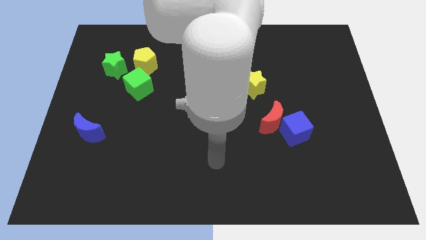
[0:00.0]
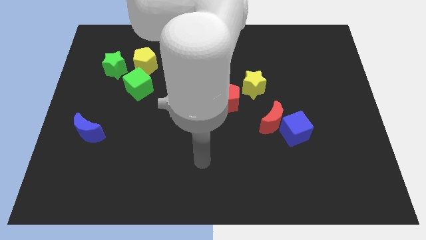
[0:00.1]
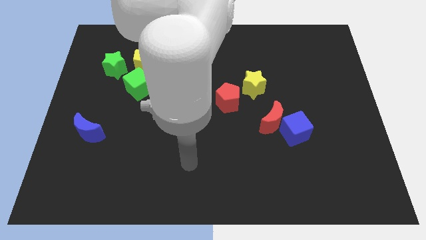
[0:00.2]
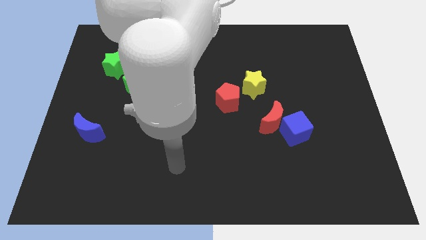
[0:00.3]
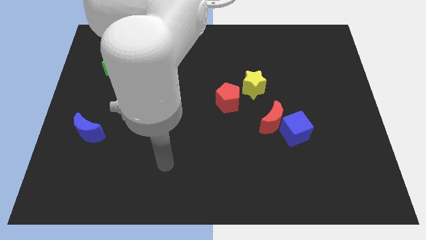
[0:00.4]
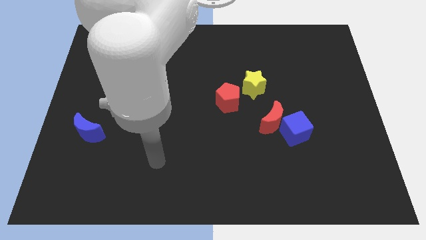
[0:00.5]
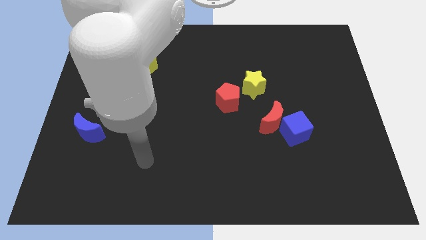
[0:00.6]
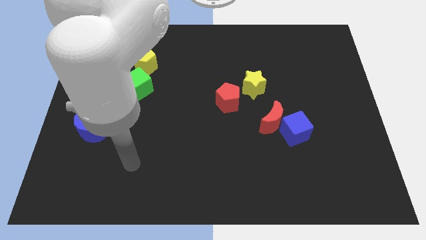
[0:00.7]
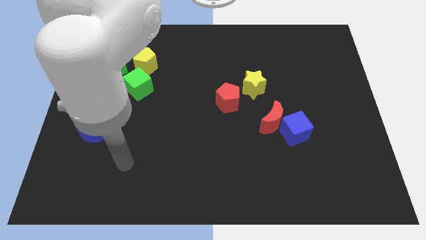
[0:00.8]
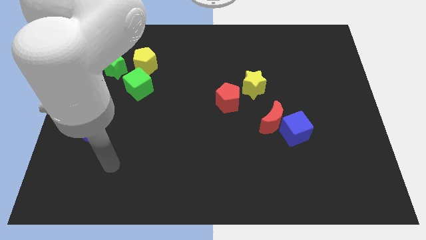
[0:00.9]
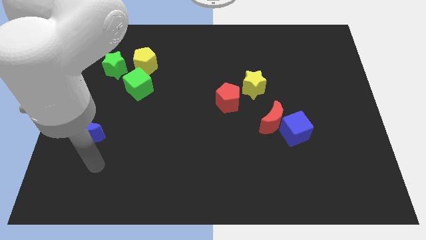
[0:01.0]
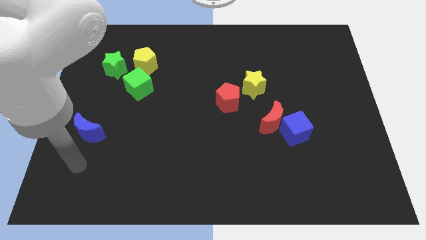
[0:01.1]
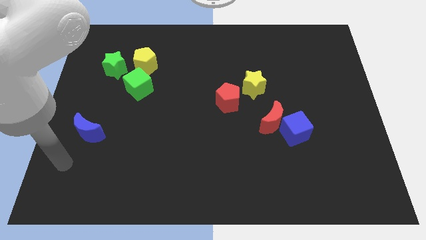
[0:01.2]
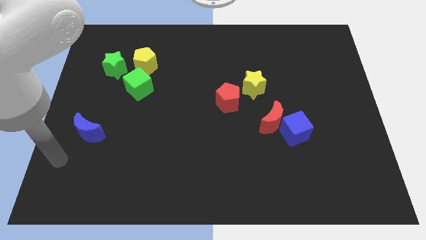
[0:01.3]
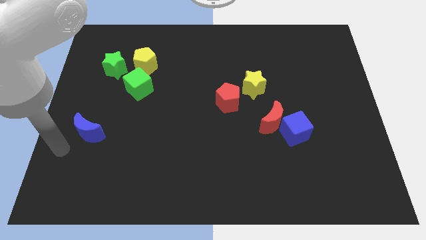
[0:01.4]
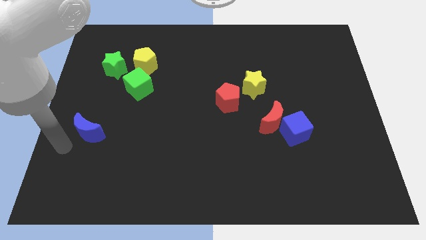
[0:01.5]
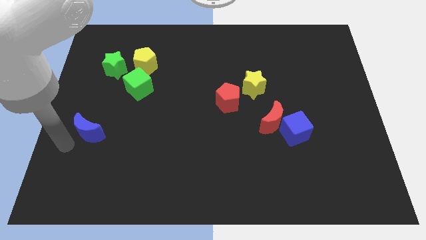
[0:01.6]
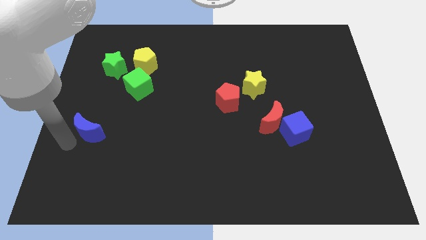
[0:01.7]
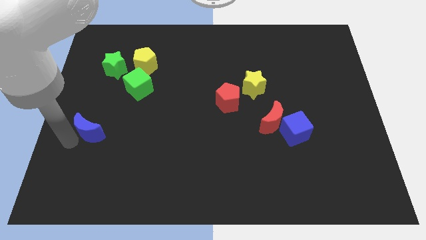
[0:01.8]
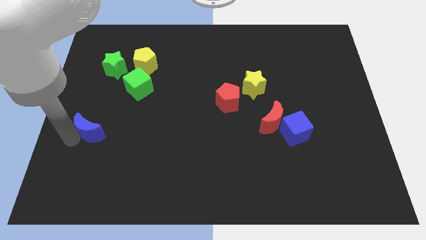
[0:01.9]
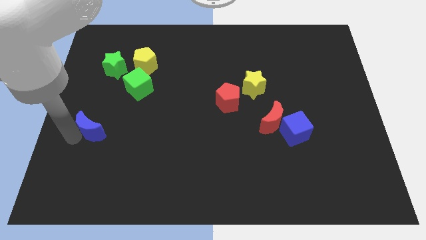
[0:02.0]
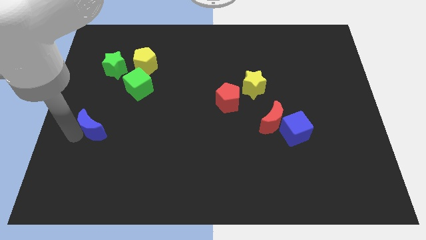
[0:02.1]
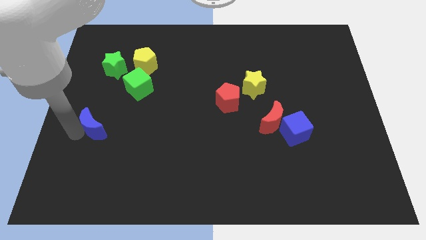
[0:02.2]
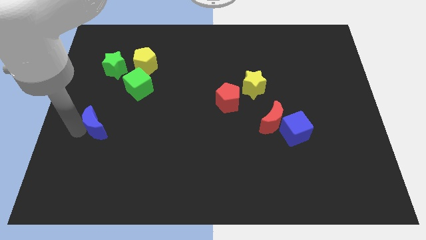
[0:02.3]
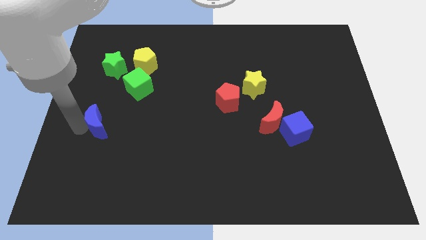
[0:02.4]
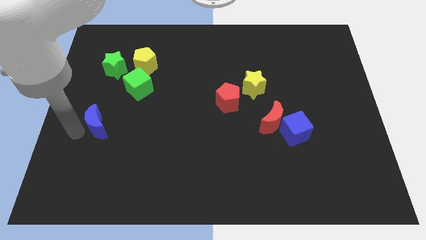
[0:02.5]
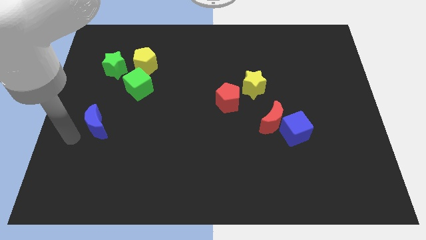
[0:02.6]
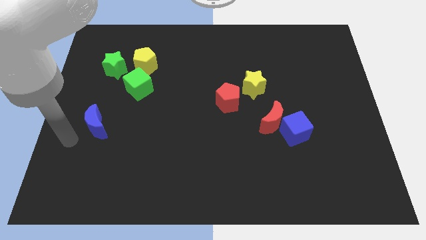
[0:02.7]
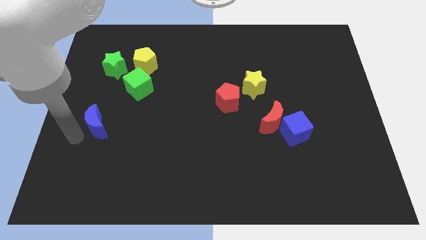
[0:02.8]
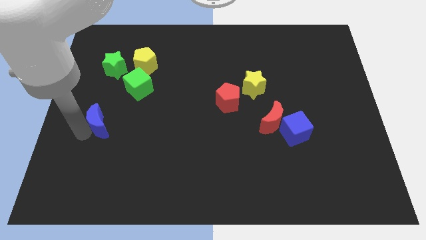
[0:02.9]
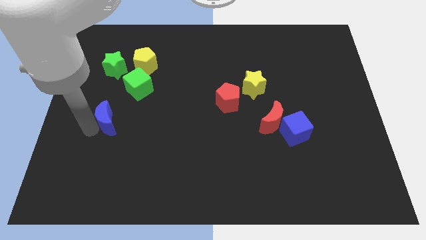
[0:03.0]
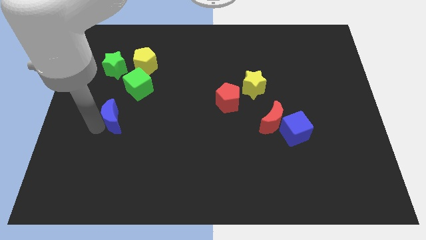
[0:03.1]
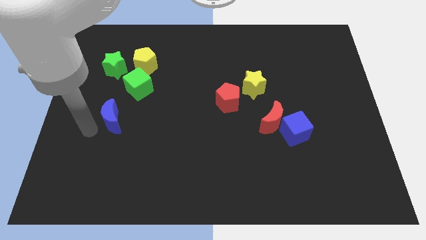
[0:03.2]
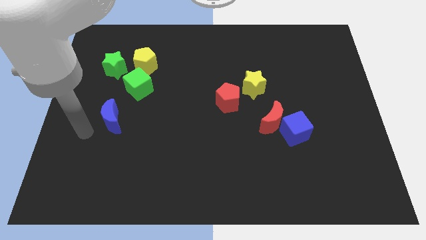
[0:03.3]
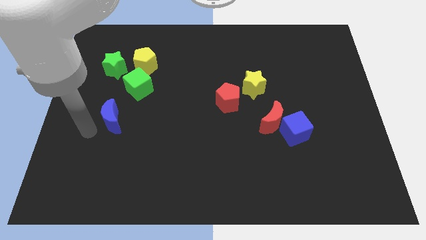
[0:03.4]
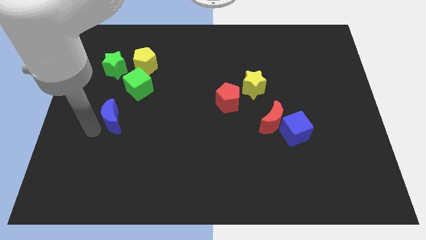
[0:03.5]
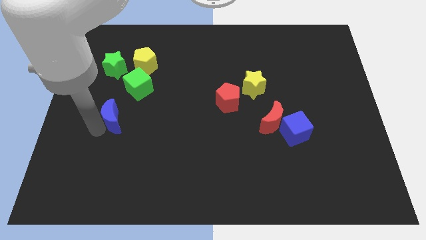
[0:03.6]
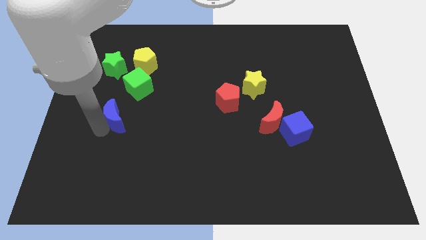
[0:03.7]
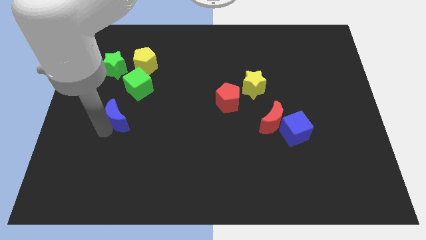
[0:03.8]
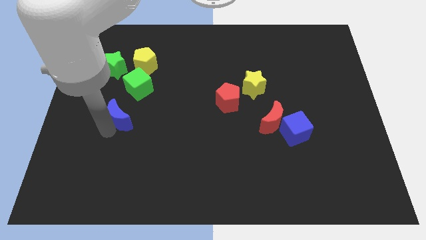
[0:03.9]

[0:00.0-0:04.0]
slightly move the blue moon upwards and then to the right

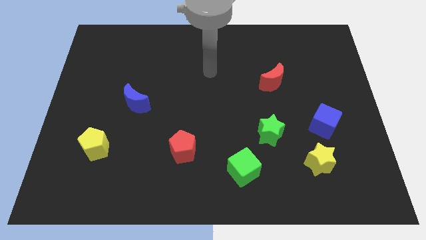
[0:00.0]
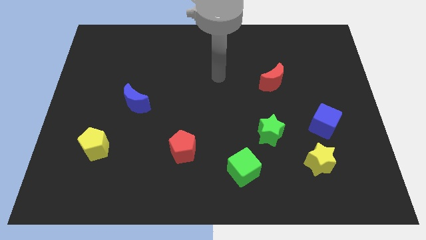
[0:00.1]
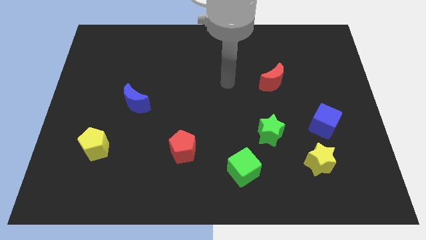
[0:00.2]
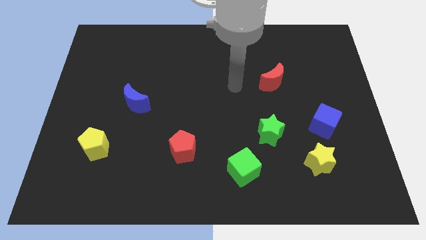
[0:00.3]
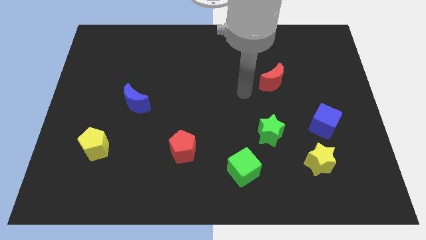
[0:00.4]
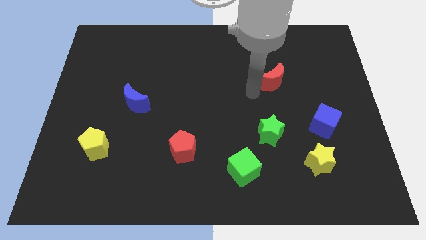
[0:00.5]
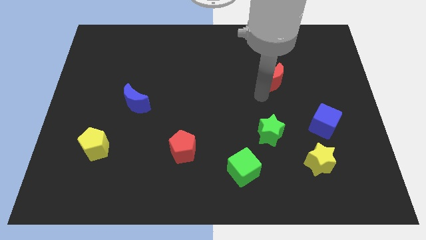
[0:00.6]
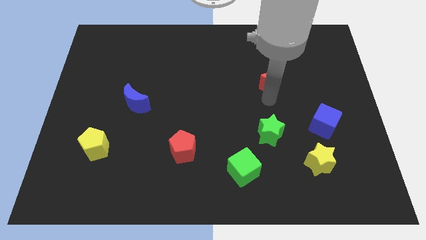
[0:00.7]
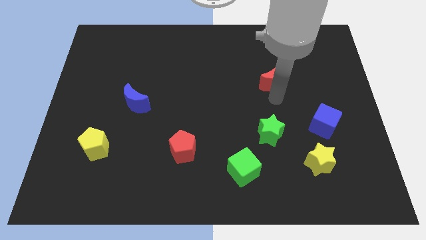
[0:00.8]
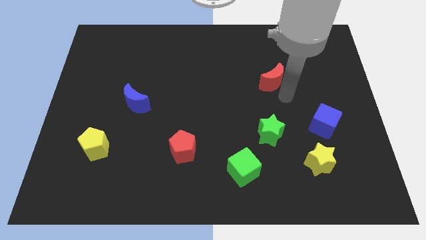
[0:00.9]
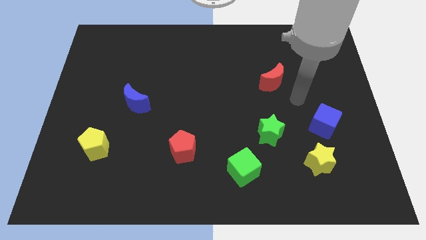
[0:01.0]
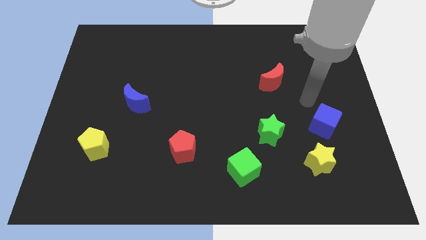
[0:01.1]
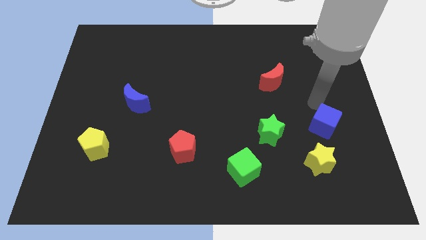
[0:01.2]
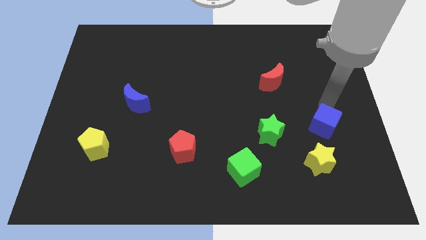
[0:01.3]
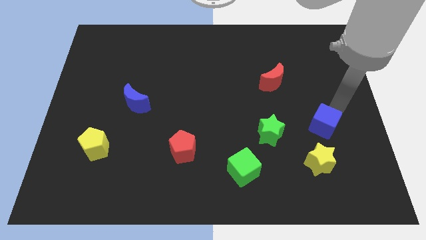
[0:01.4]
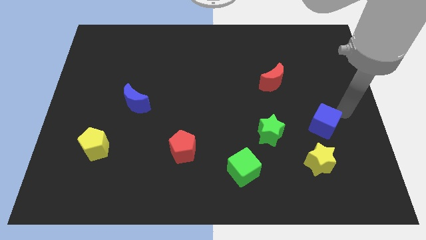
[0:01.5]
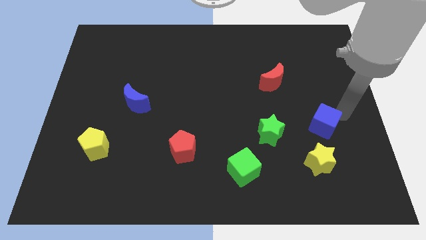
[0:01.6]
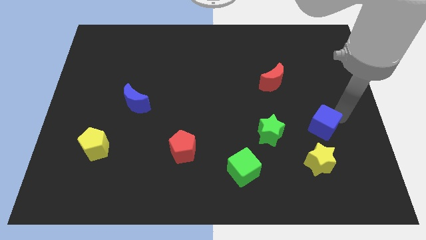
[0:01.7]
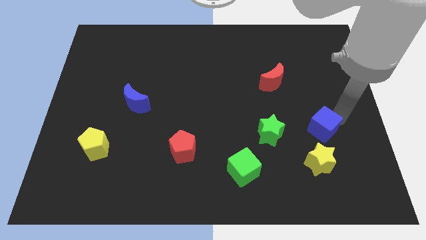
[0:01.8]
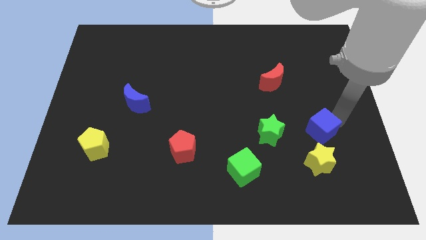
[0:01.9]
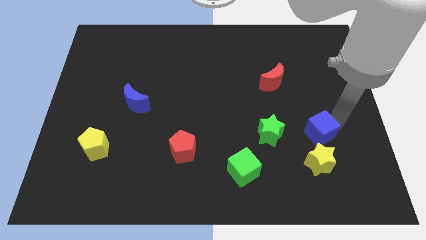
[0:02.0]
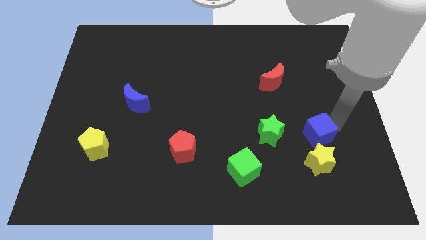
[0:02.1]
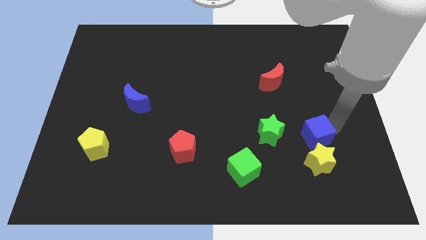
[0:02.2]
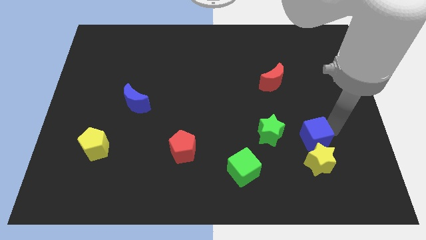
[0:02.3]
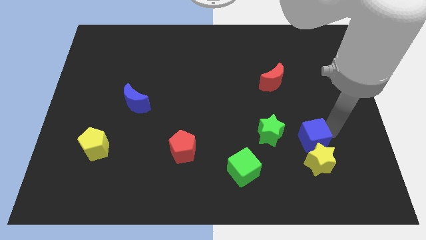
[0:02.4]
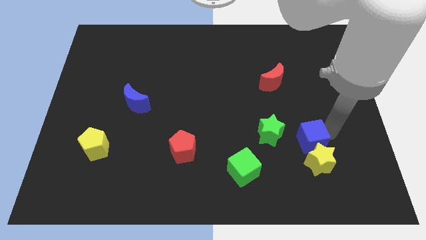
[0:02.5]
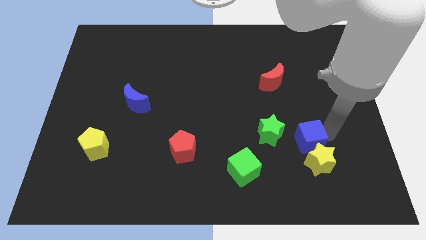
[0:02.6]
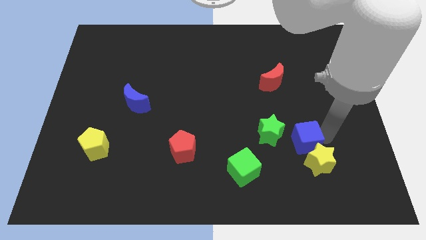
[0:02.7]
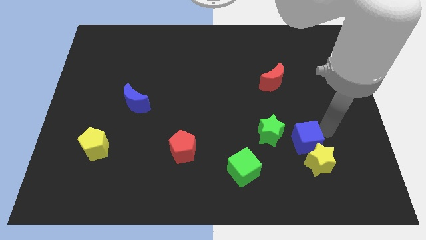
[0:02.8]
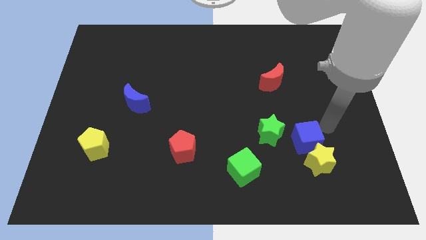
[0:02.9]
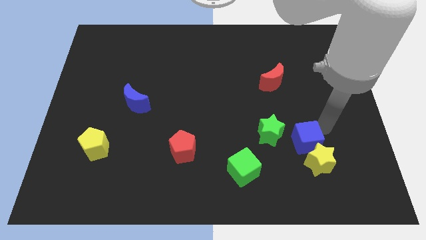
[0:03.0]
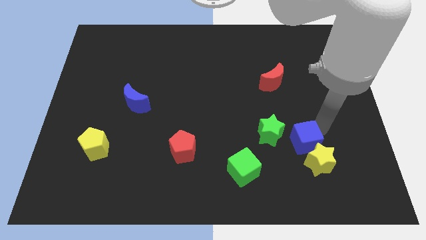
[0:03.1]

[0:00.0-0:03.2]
slide the blue cube downwards and left diagonally a bit

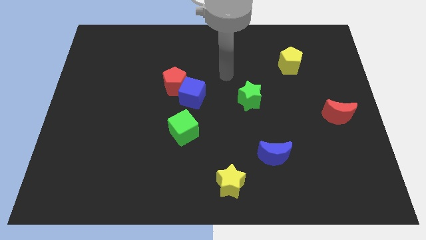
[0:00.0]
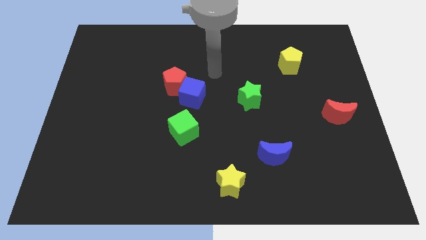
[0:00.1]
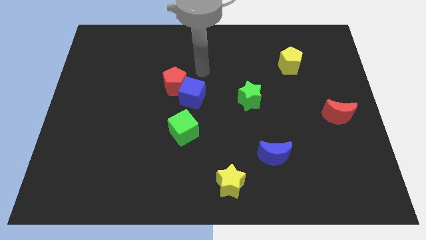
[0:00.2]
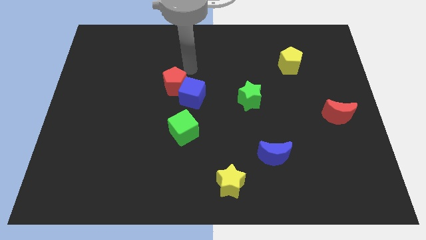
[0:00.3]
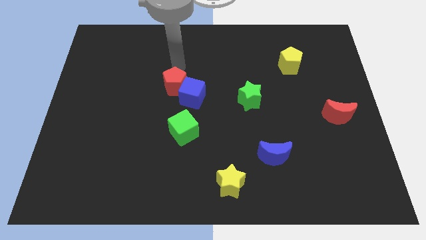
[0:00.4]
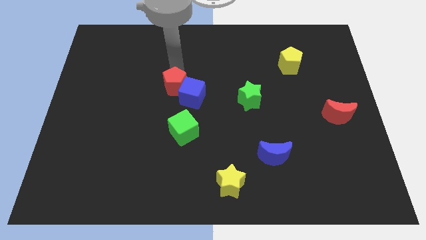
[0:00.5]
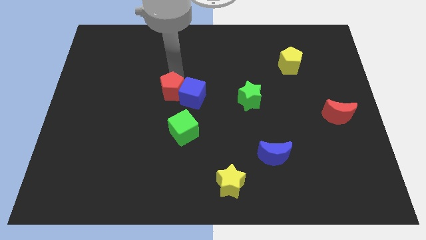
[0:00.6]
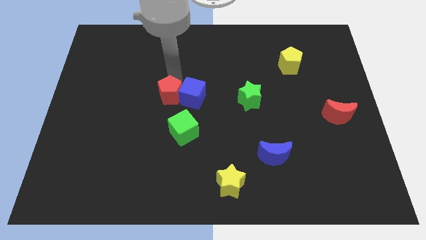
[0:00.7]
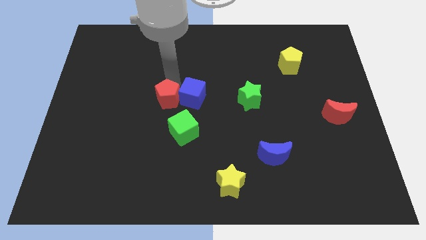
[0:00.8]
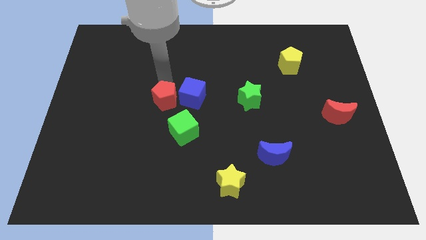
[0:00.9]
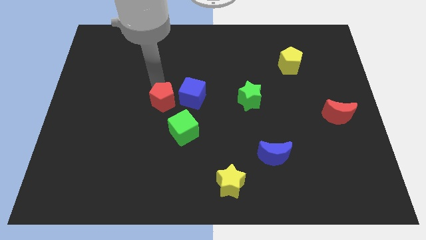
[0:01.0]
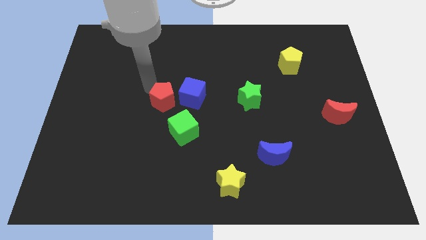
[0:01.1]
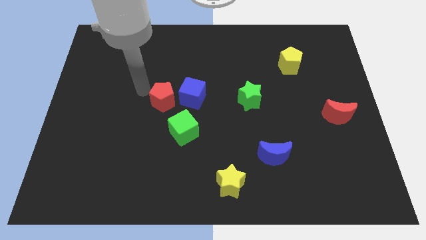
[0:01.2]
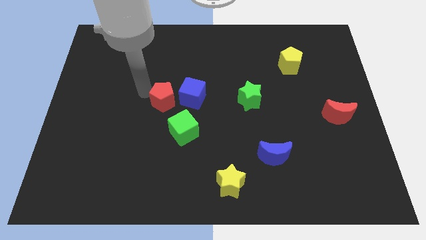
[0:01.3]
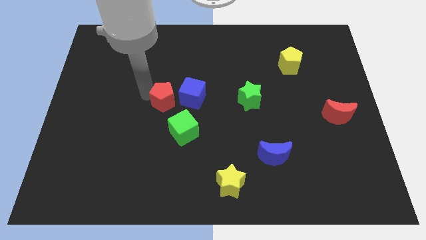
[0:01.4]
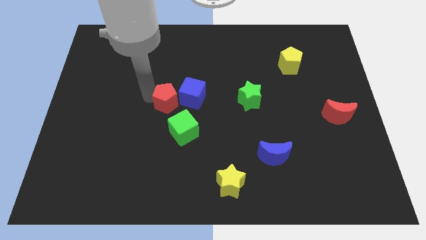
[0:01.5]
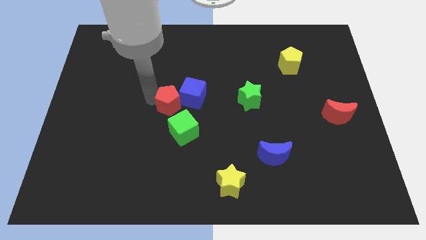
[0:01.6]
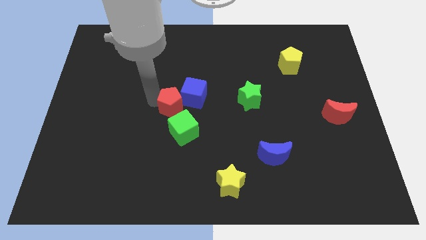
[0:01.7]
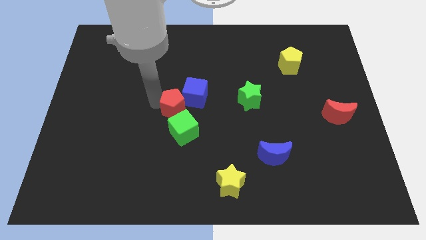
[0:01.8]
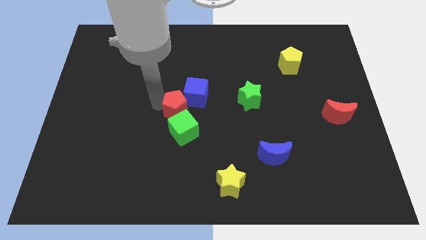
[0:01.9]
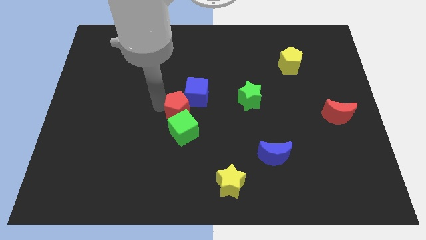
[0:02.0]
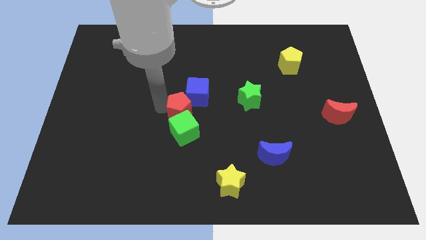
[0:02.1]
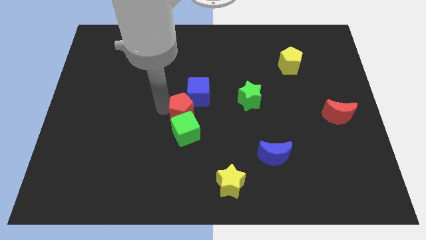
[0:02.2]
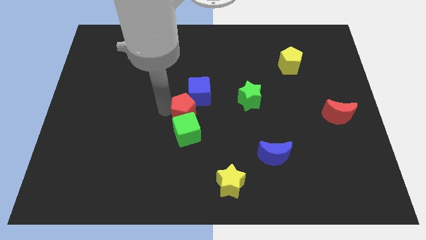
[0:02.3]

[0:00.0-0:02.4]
move the red pentagon diagonally downwards and right a little bit
